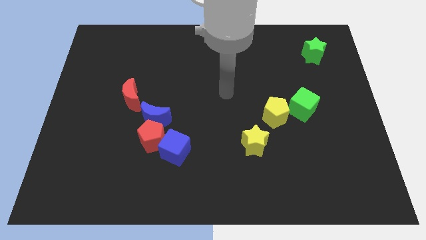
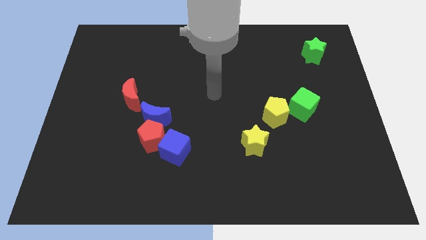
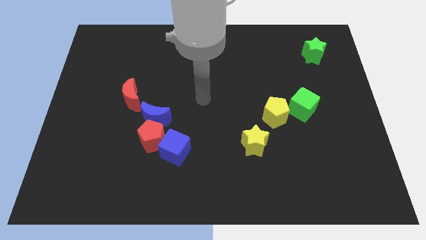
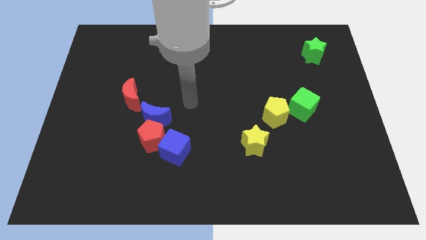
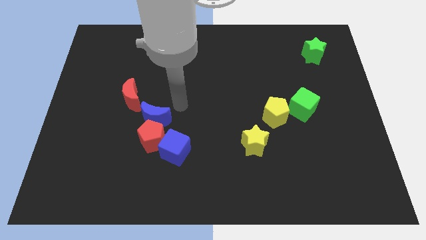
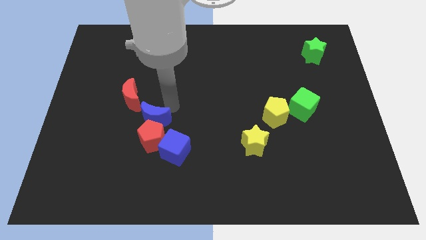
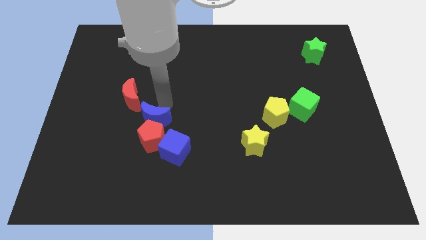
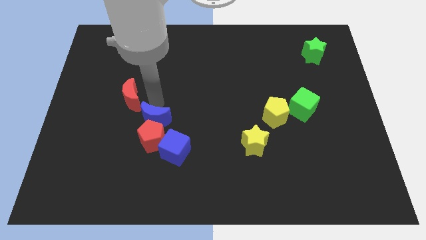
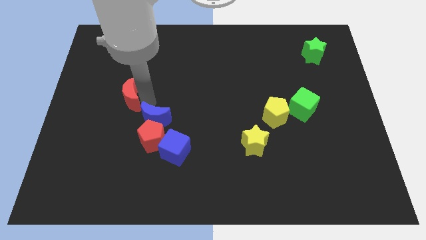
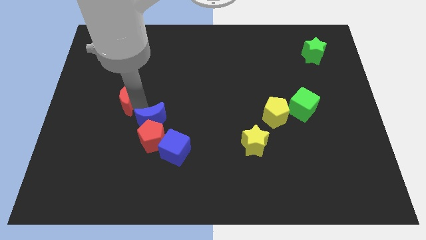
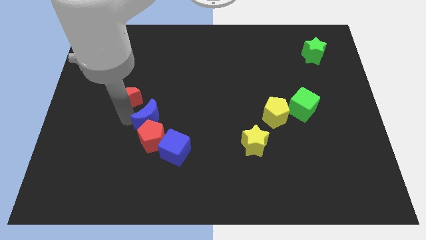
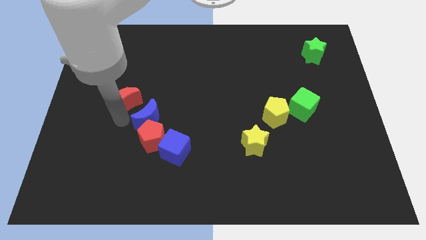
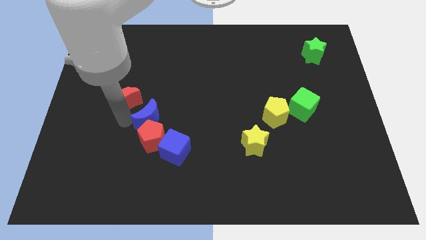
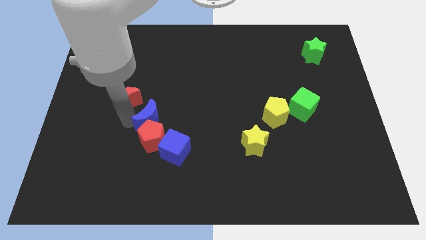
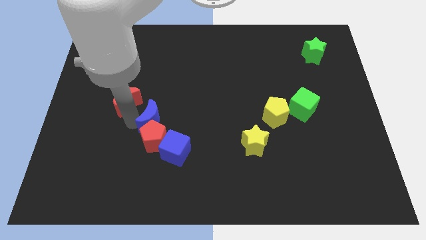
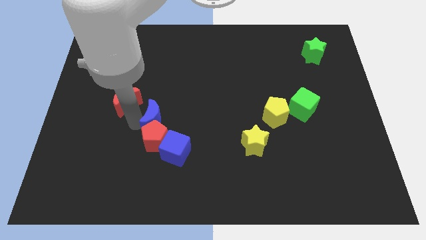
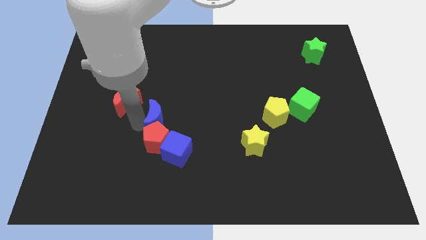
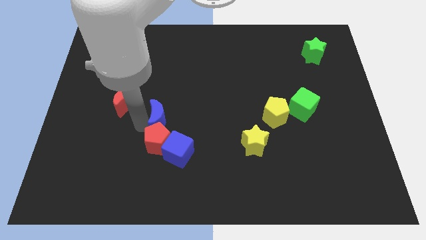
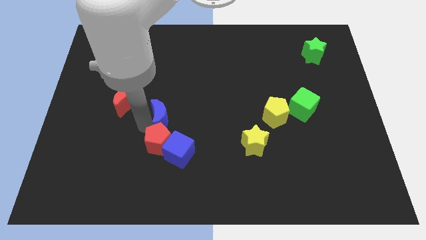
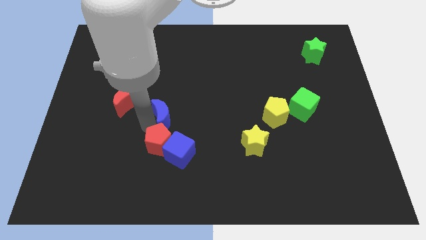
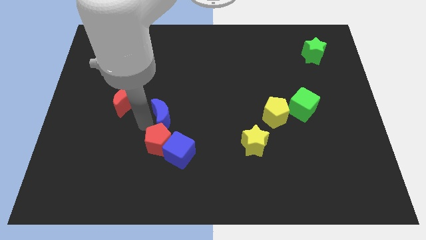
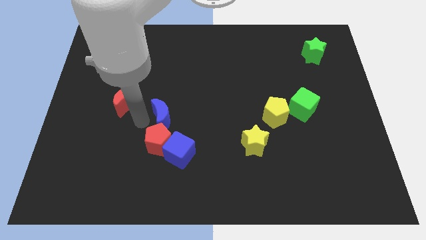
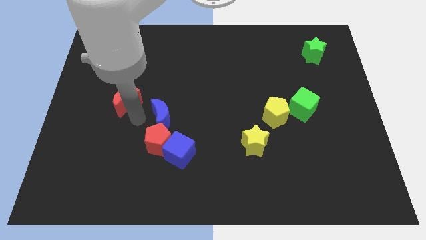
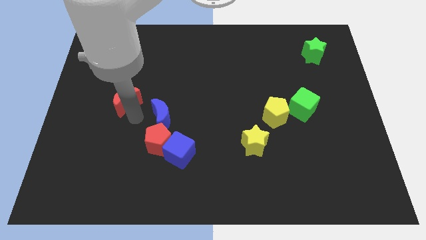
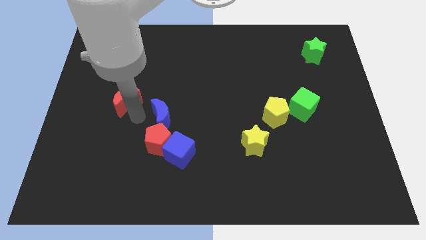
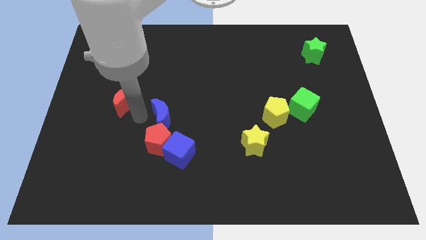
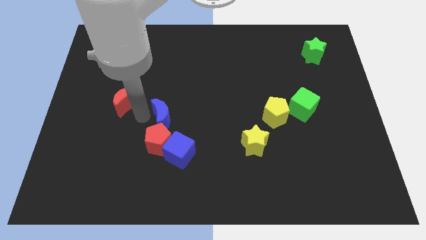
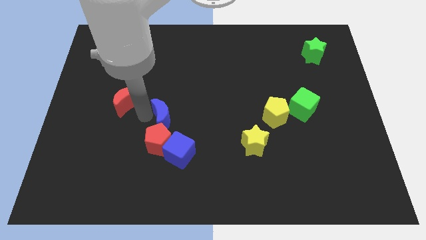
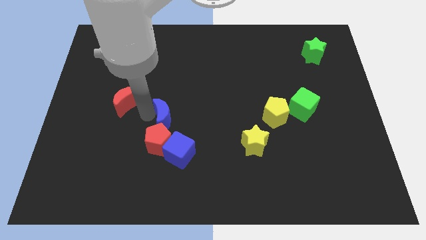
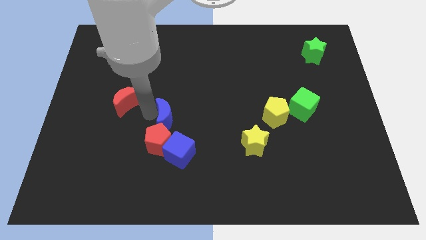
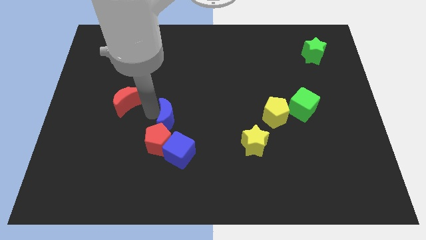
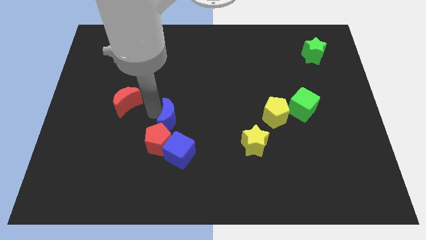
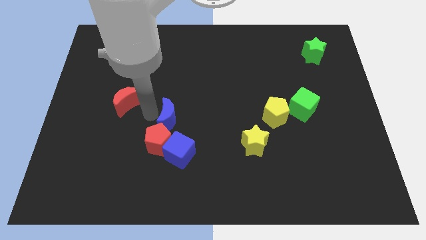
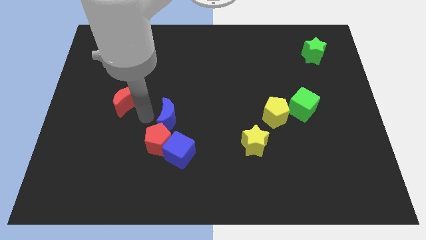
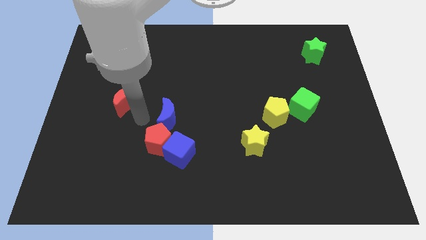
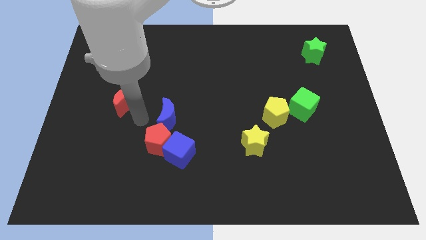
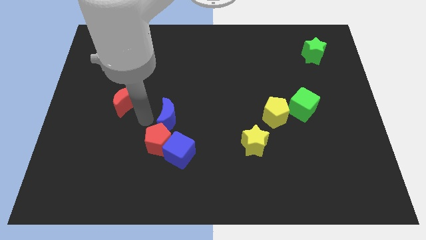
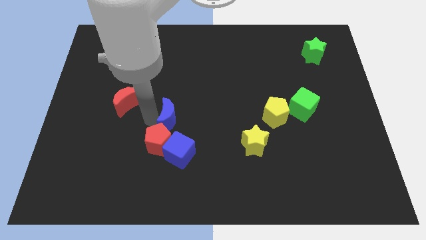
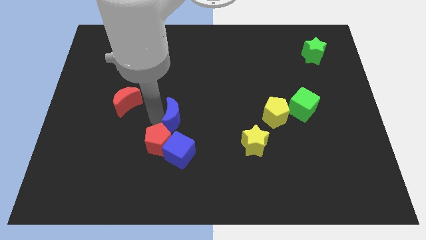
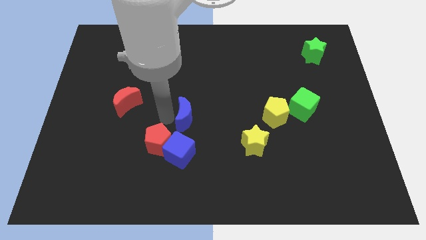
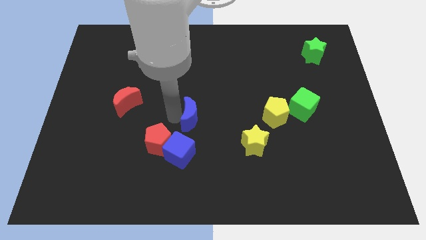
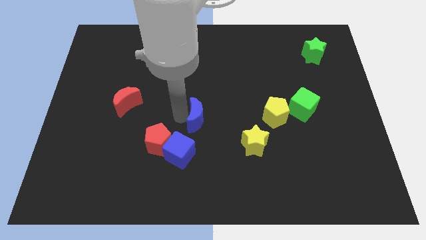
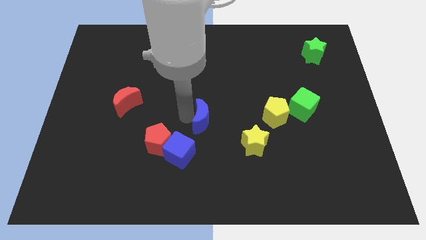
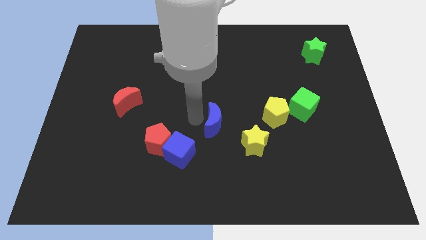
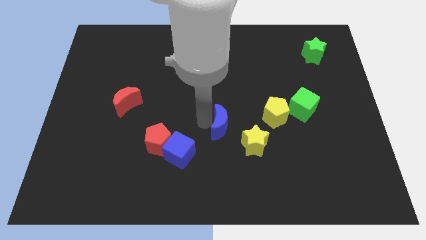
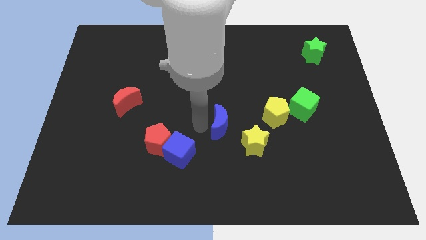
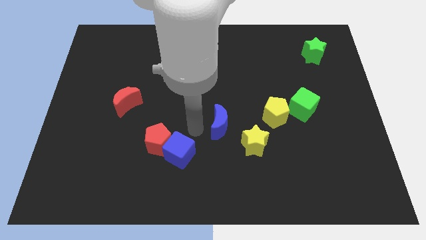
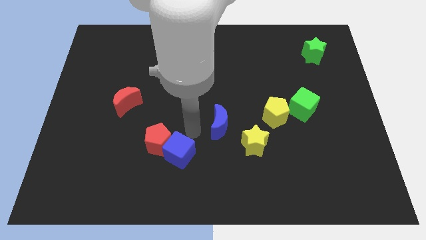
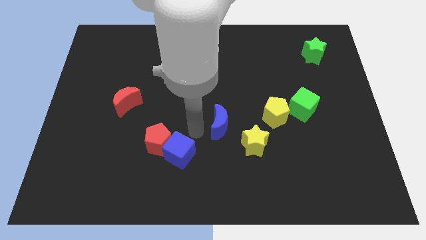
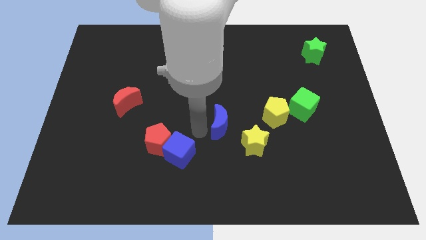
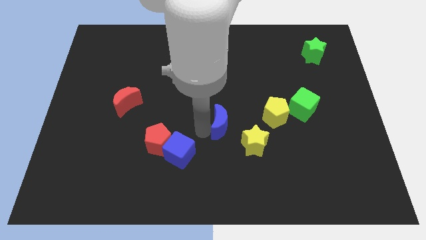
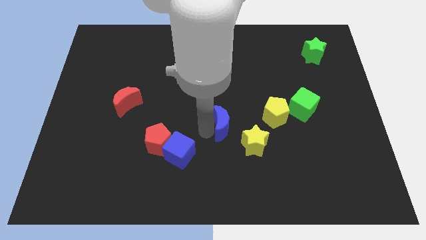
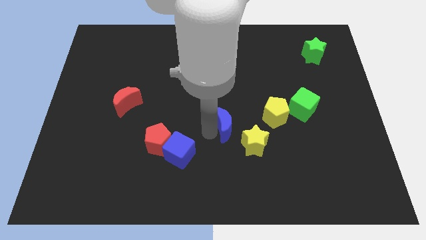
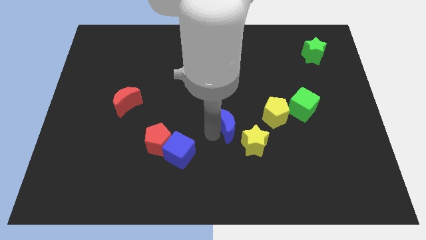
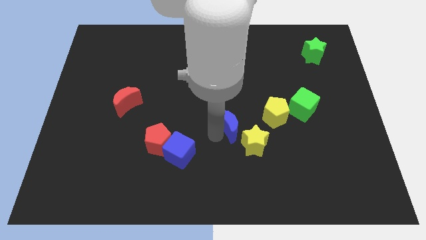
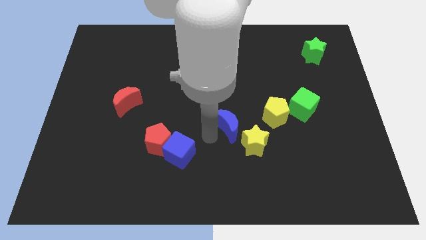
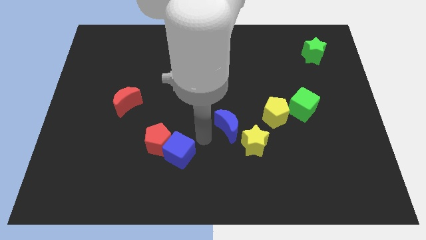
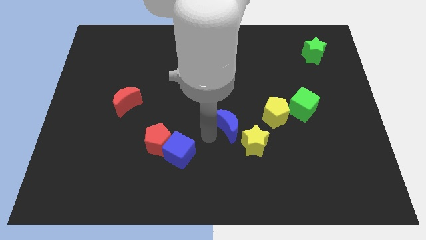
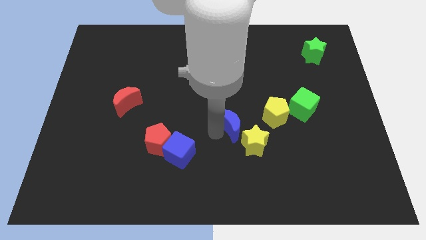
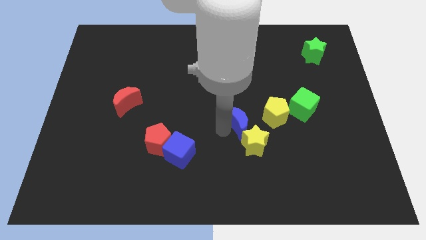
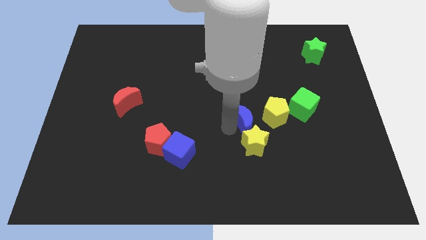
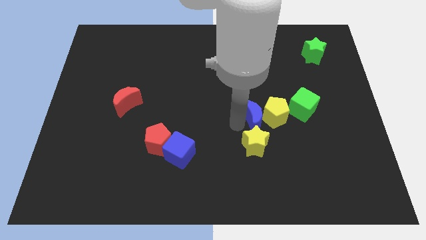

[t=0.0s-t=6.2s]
slide the blue moon towards the yellow pentagon
